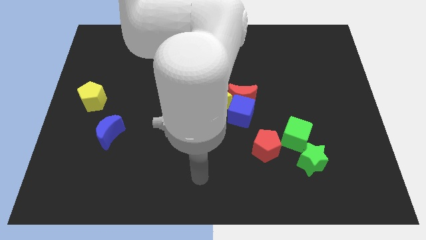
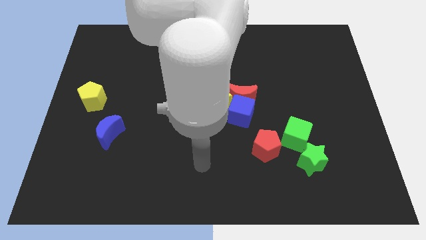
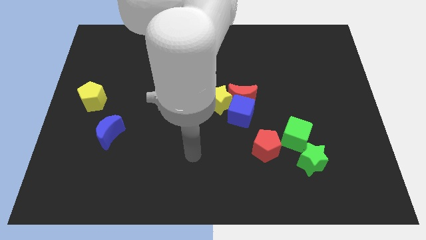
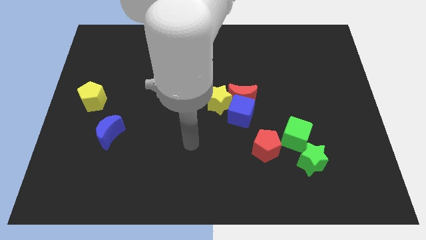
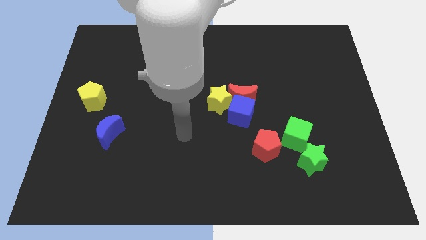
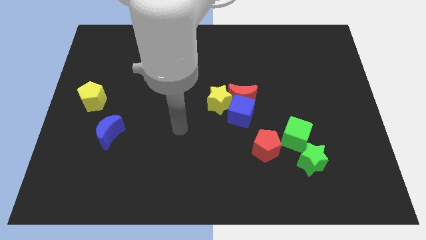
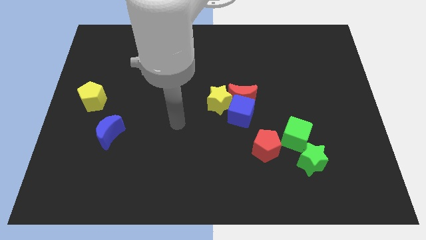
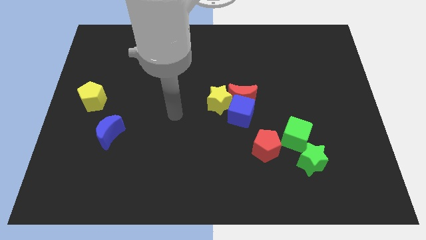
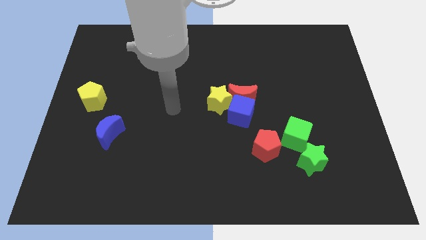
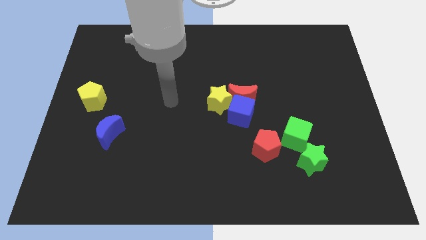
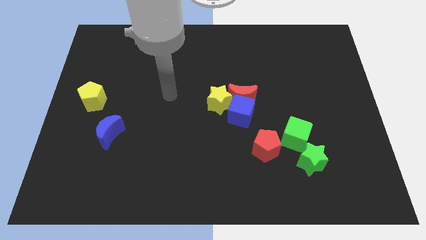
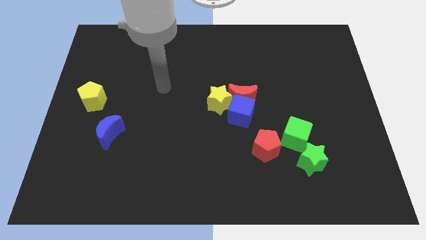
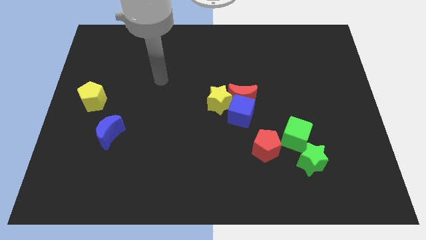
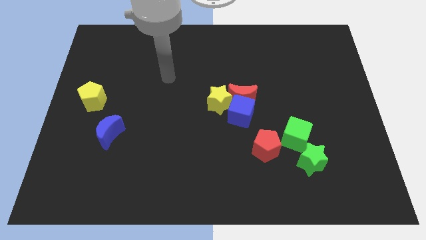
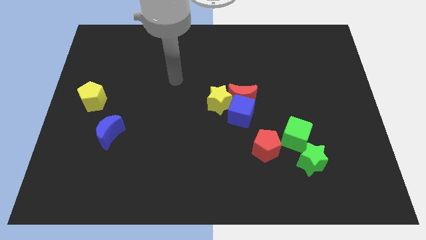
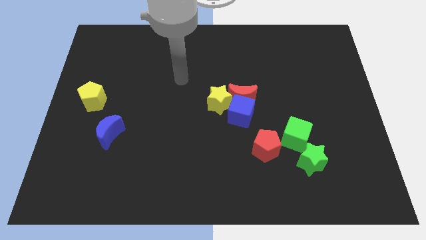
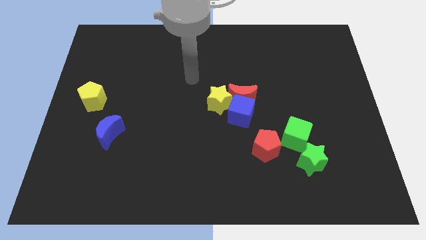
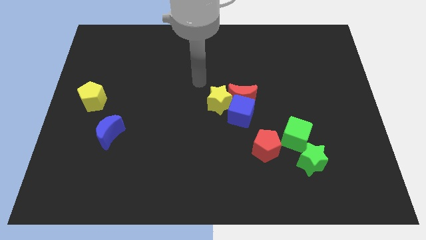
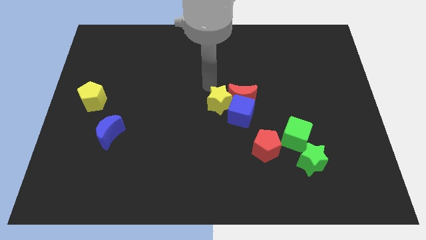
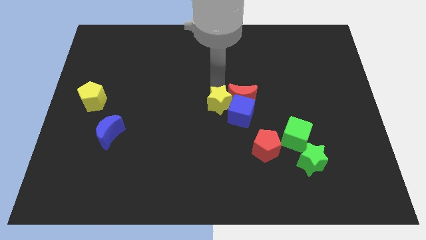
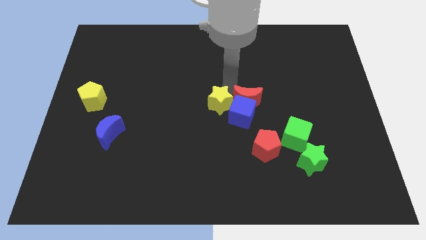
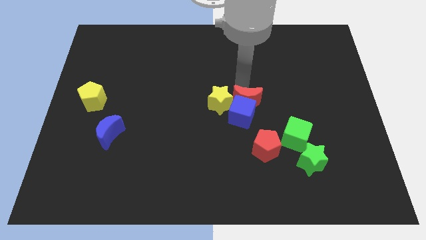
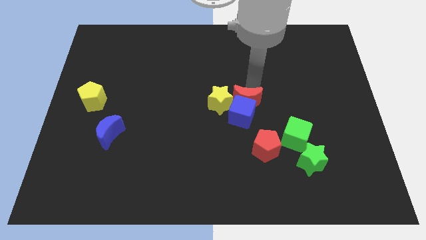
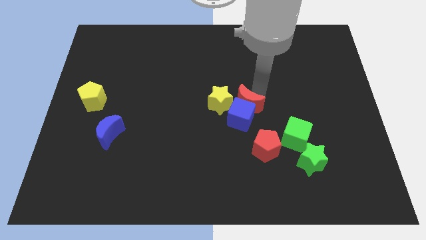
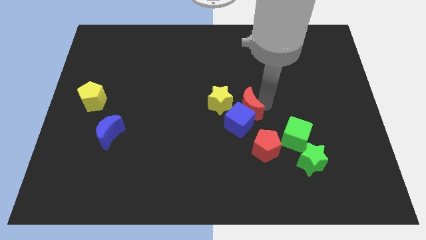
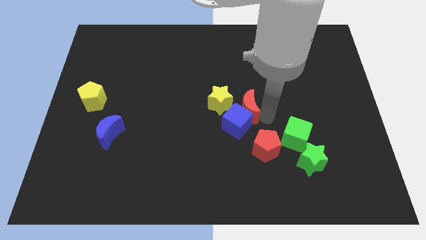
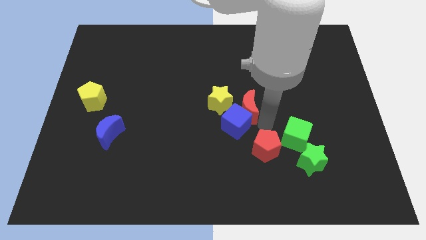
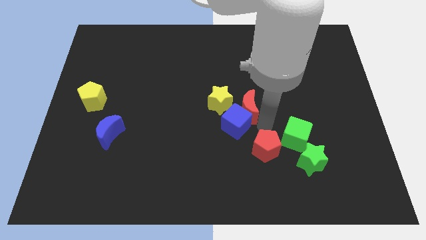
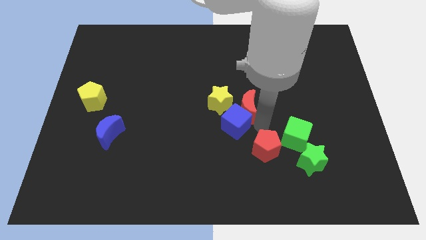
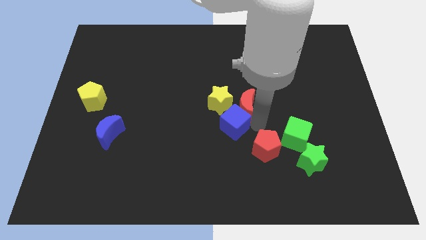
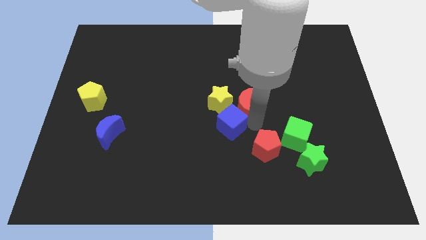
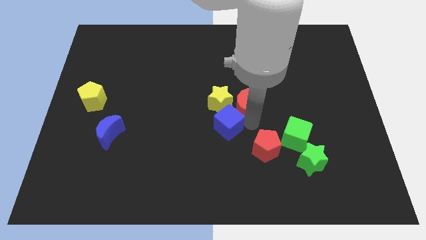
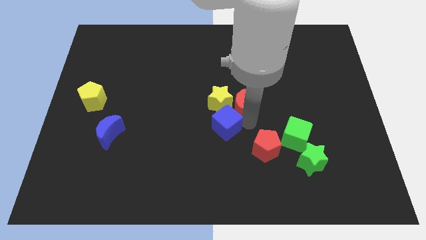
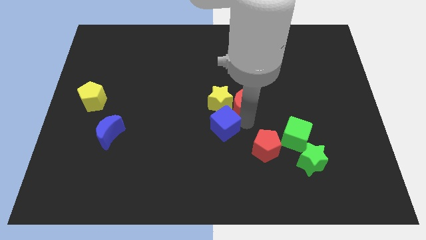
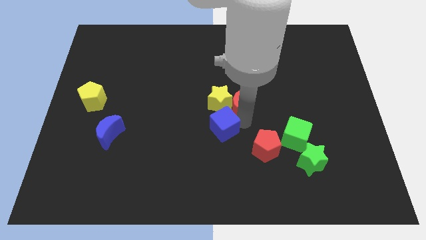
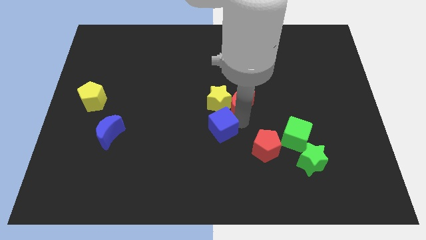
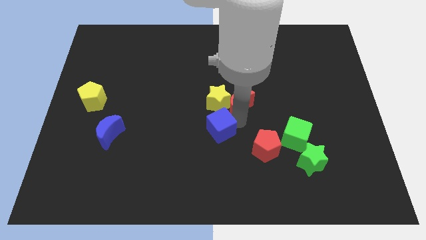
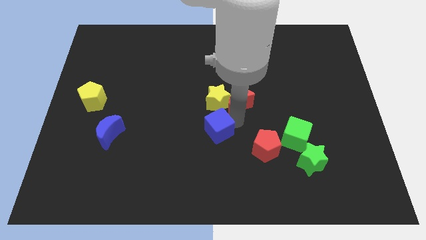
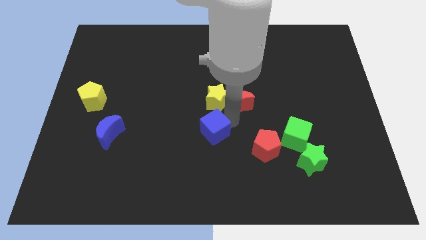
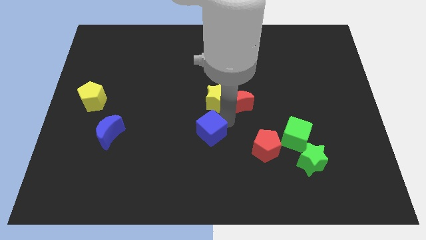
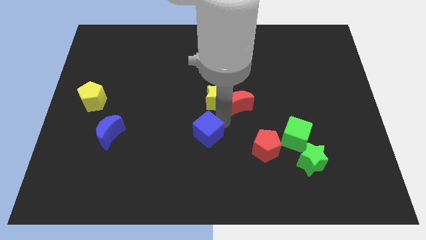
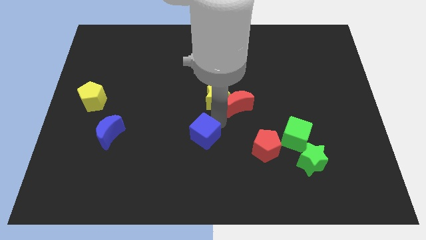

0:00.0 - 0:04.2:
move the blue cube a little bit to the left

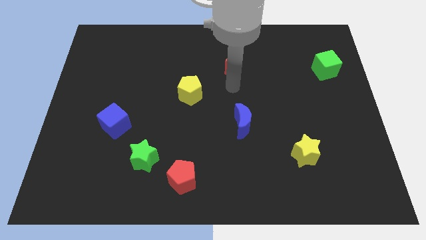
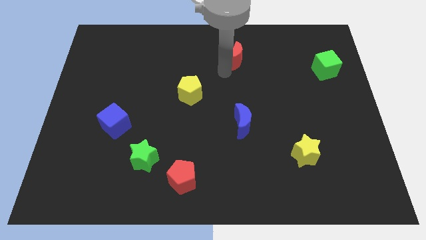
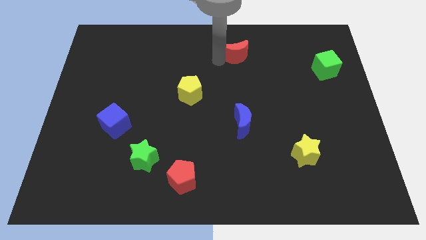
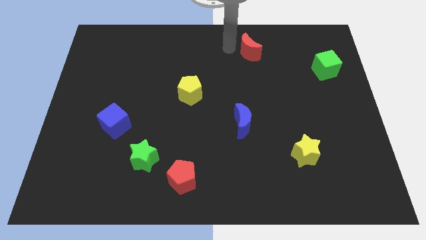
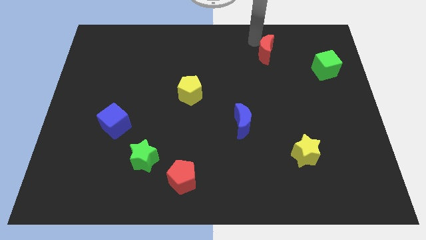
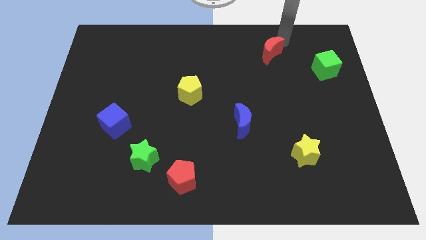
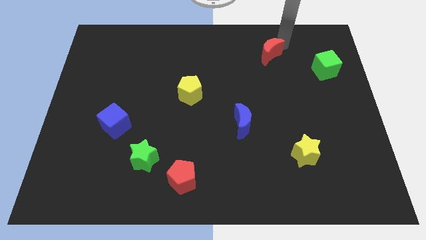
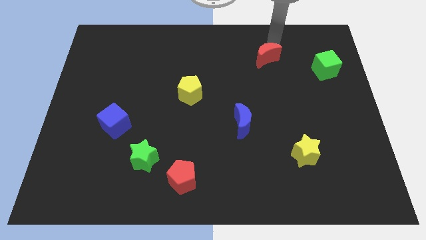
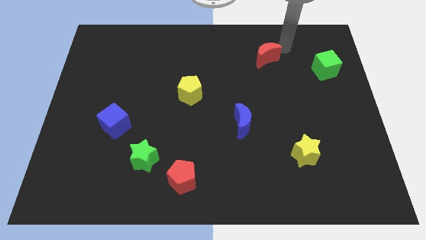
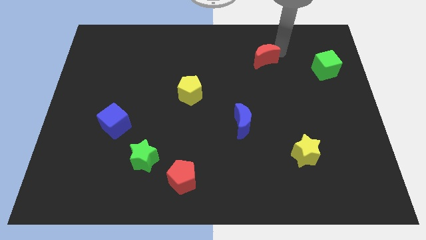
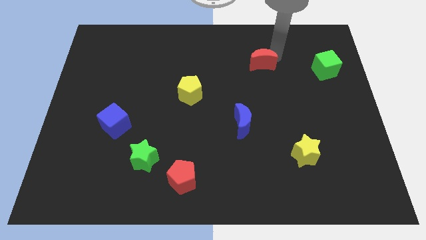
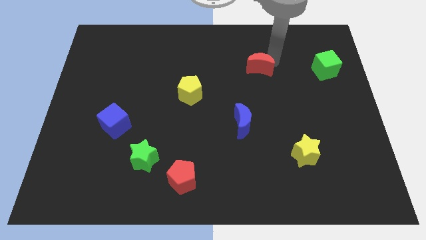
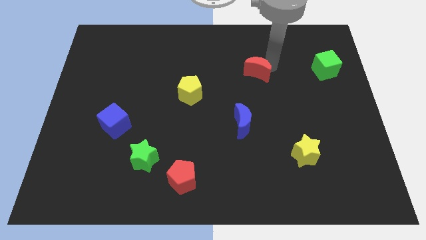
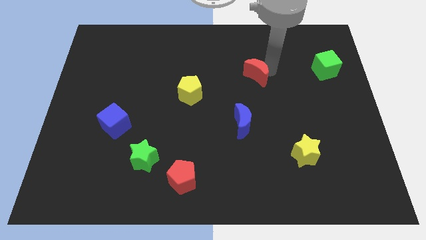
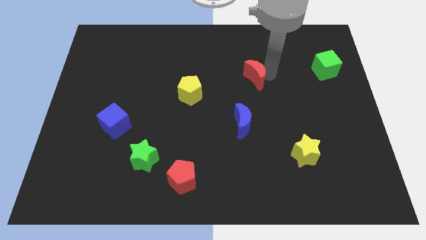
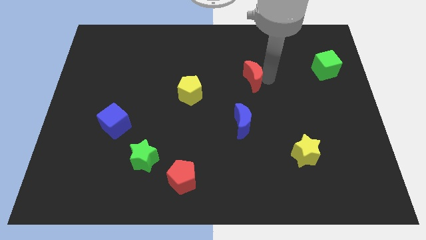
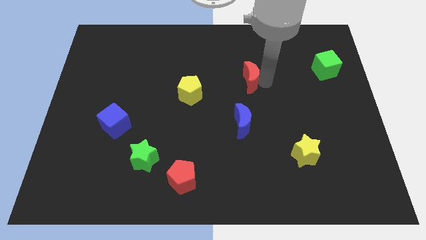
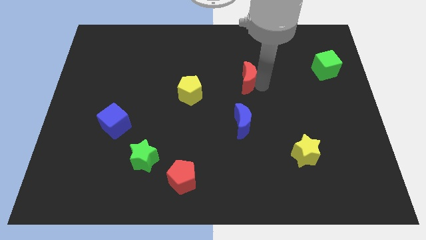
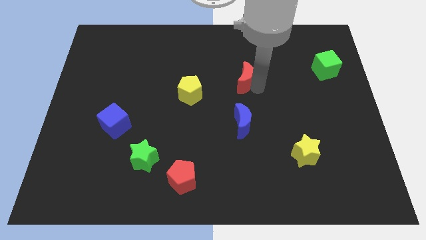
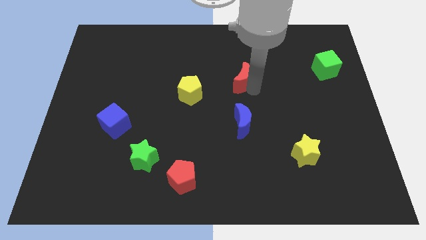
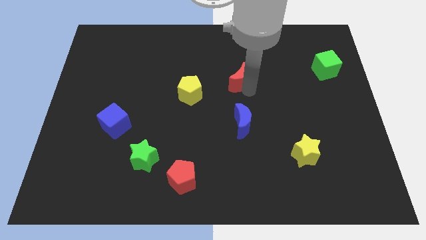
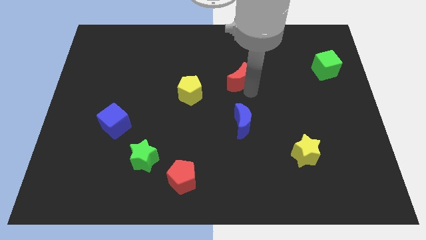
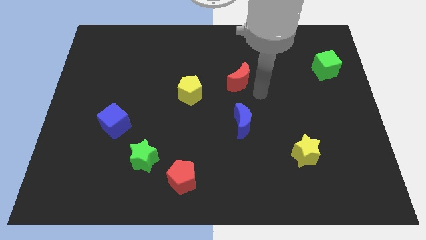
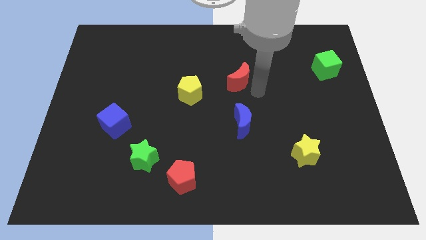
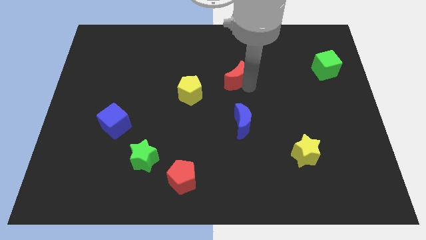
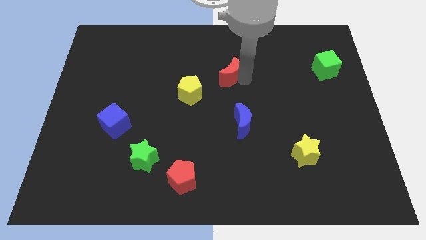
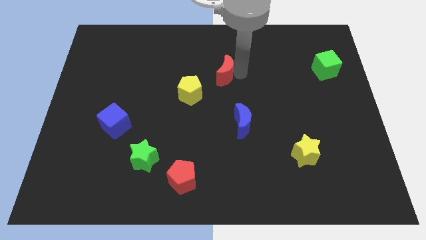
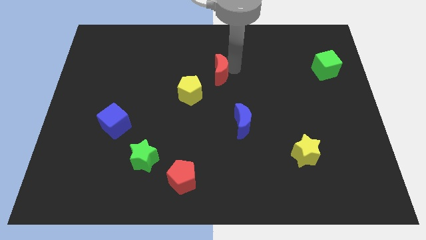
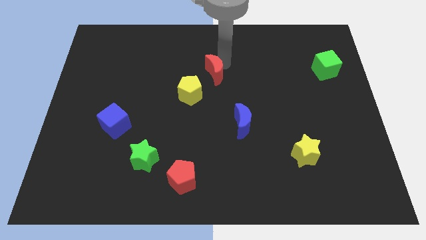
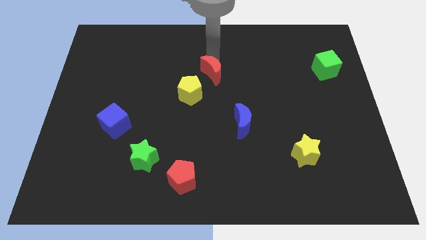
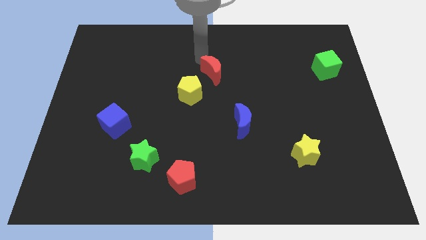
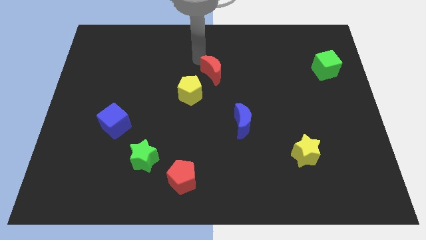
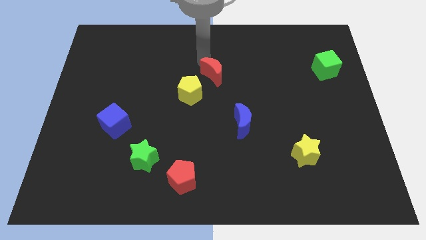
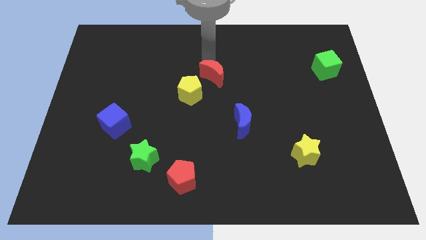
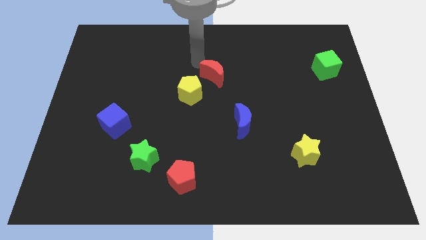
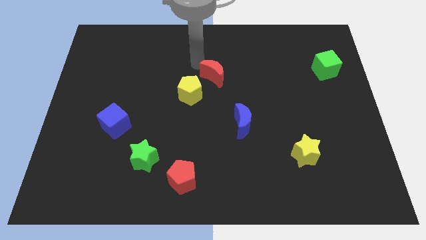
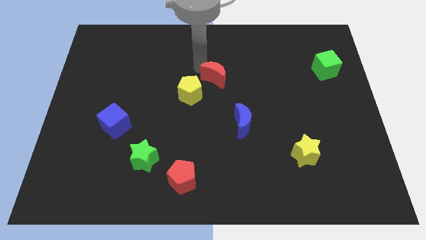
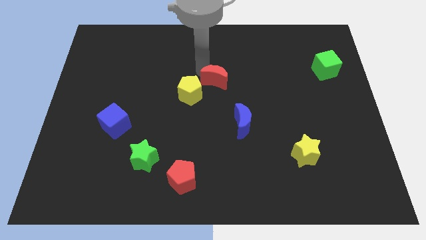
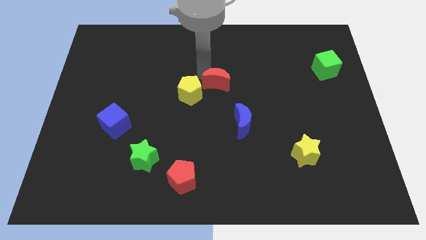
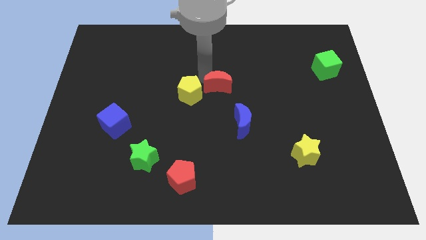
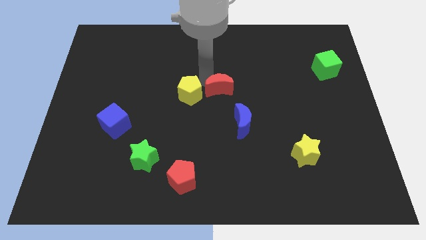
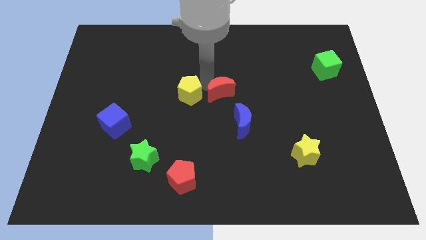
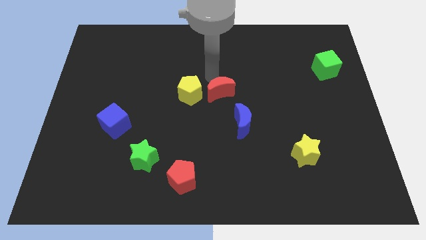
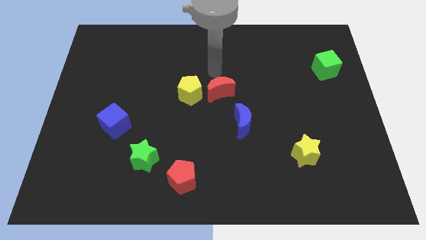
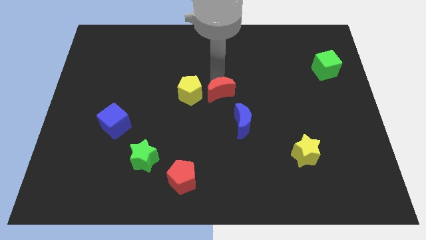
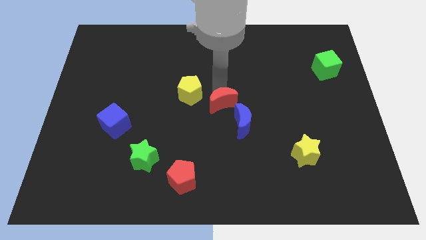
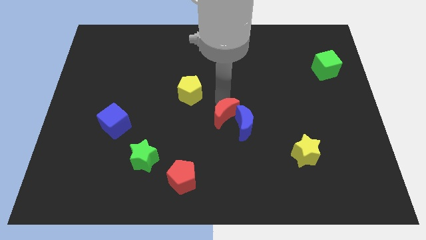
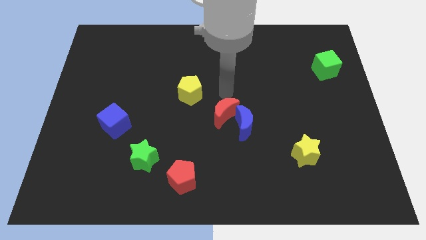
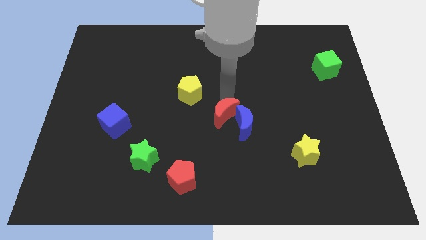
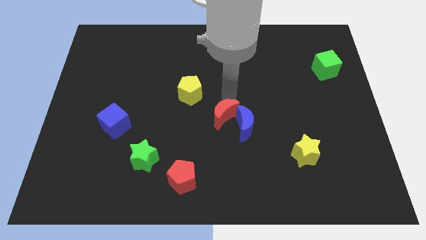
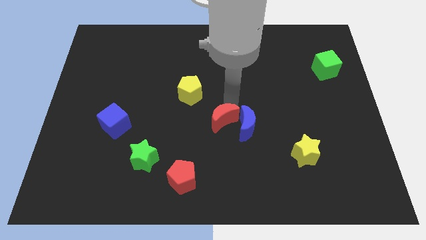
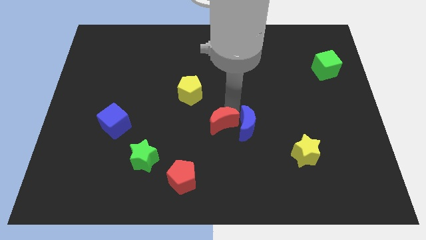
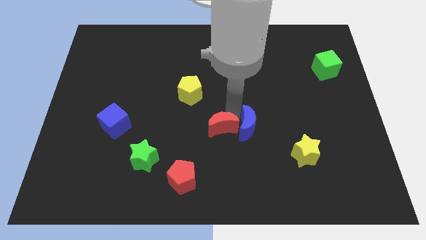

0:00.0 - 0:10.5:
move the red moon down
